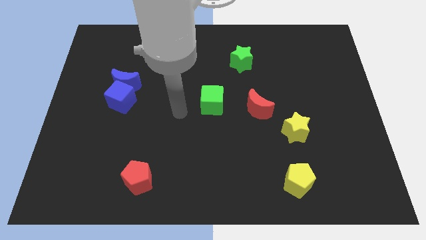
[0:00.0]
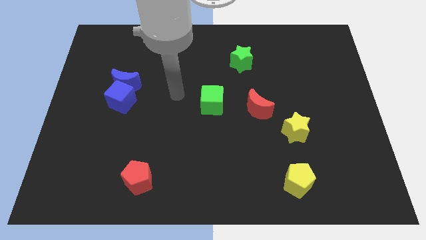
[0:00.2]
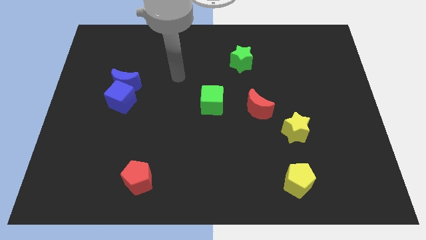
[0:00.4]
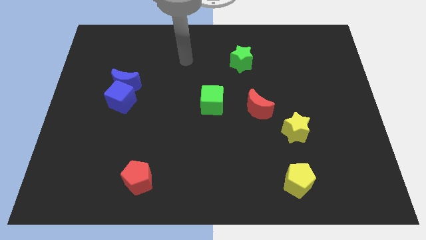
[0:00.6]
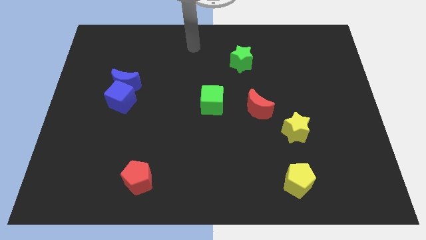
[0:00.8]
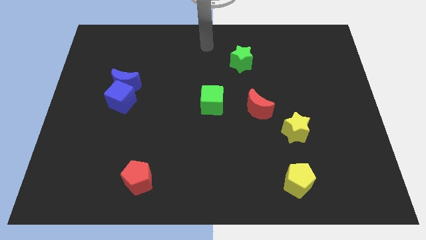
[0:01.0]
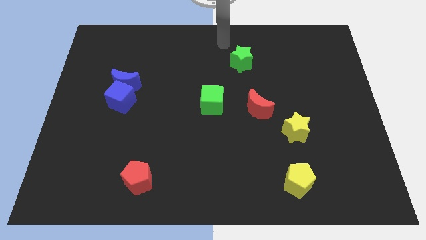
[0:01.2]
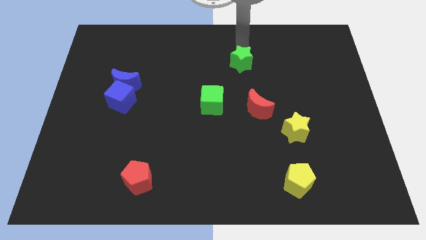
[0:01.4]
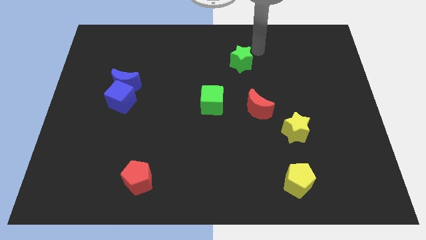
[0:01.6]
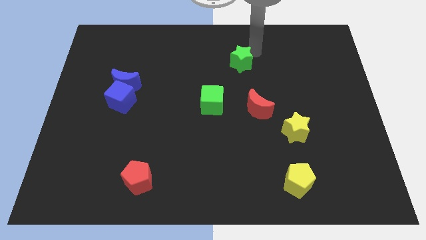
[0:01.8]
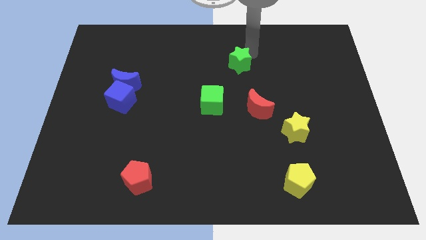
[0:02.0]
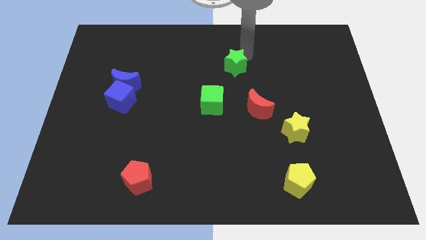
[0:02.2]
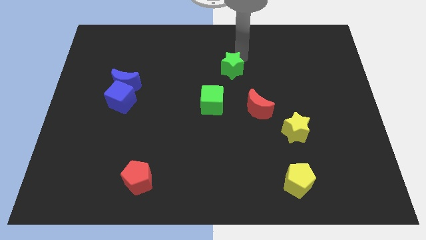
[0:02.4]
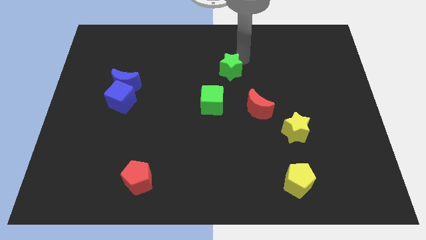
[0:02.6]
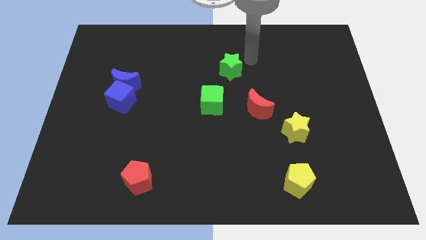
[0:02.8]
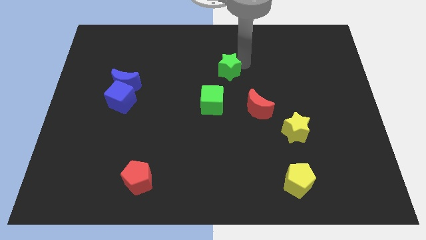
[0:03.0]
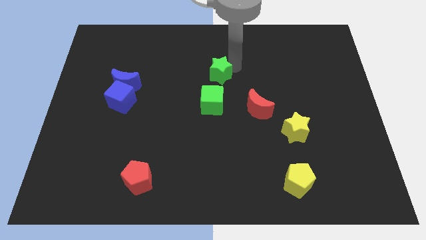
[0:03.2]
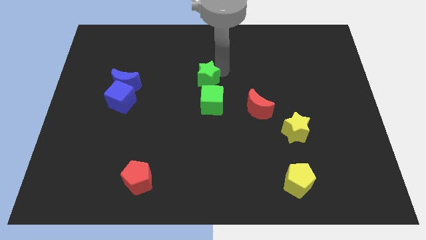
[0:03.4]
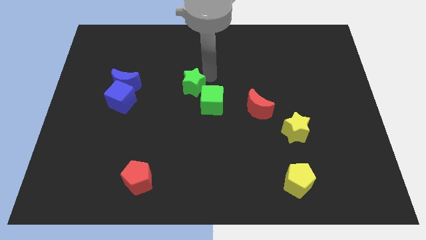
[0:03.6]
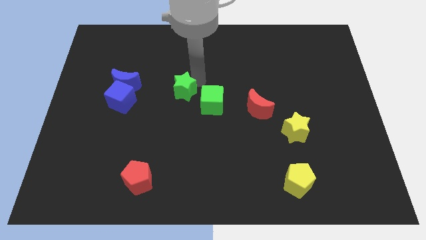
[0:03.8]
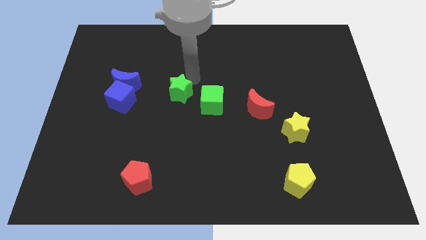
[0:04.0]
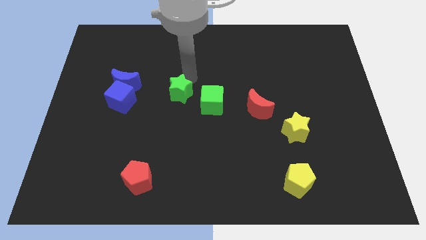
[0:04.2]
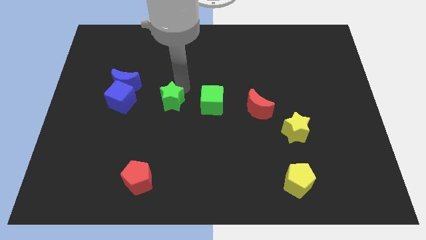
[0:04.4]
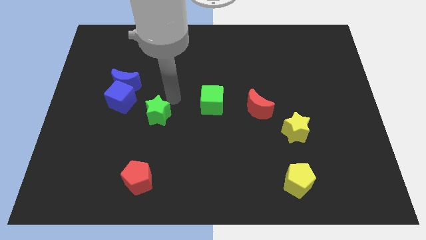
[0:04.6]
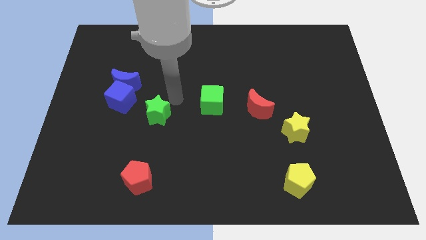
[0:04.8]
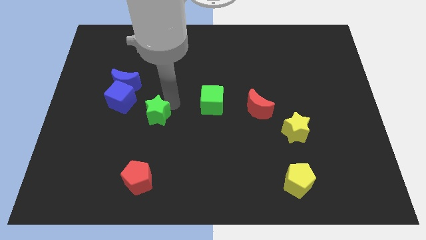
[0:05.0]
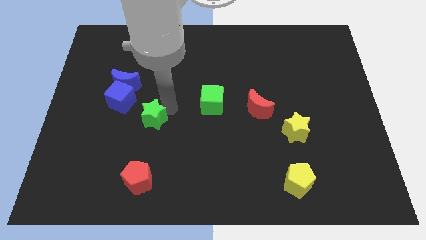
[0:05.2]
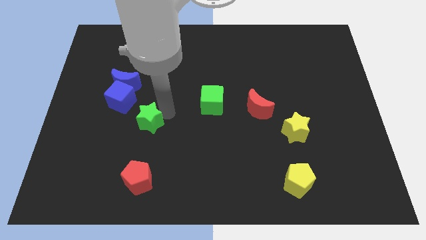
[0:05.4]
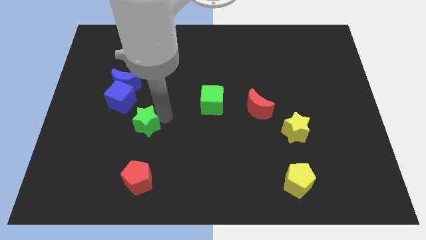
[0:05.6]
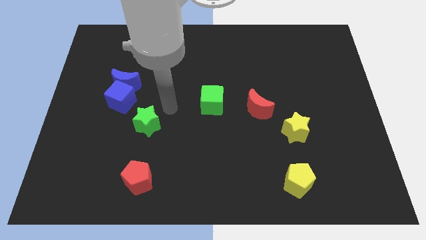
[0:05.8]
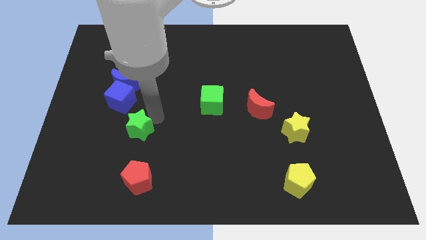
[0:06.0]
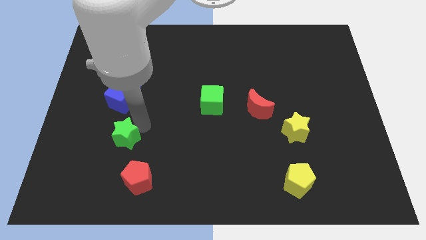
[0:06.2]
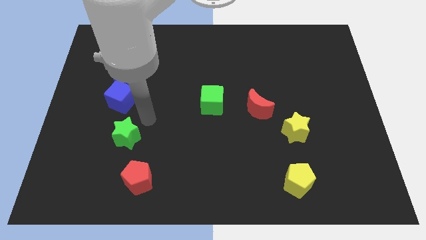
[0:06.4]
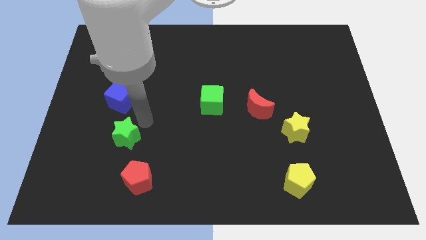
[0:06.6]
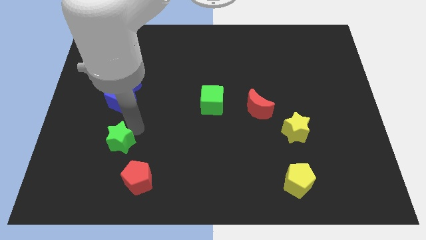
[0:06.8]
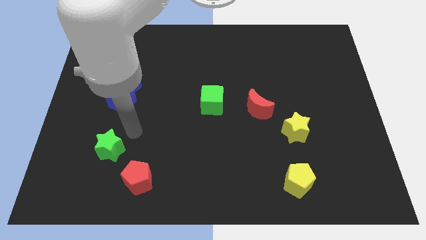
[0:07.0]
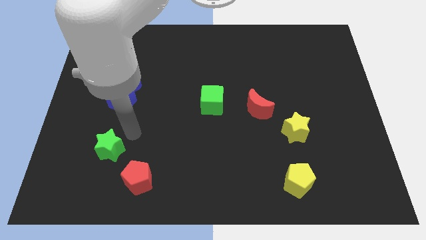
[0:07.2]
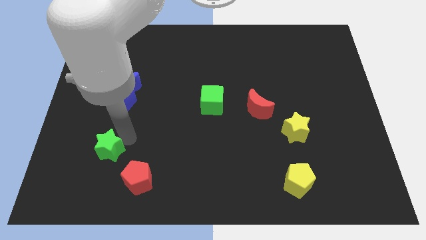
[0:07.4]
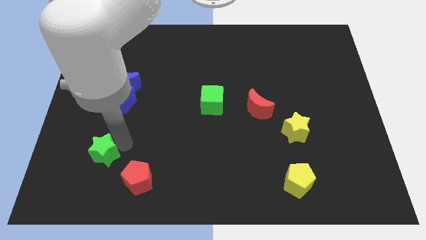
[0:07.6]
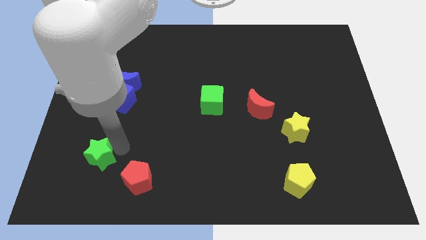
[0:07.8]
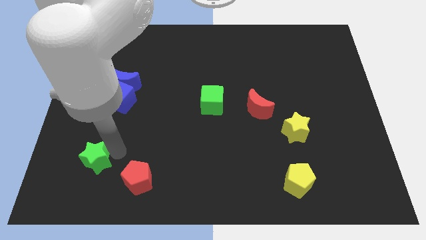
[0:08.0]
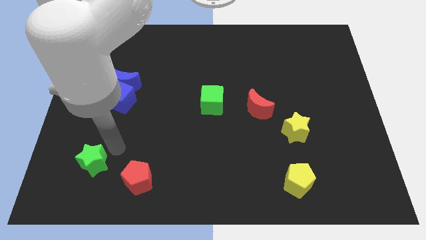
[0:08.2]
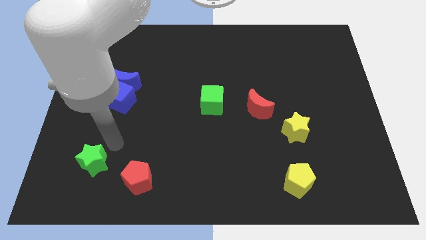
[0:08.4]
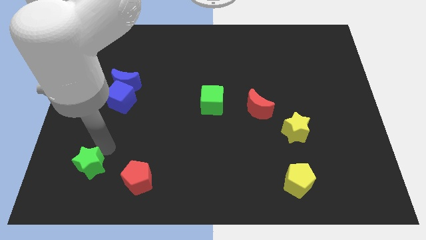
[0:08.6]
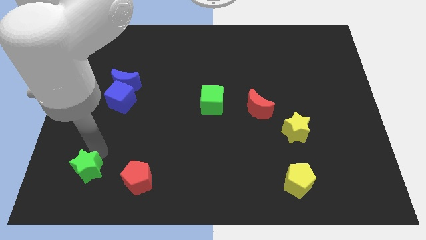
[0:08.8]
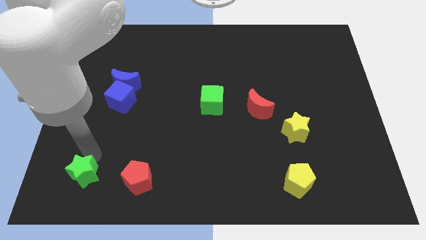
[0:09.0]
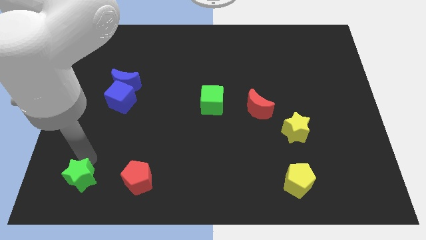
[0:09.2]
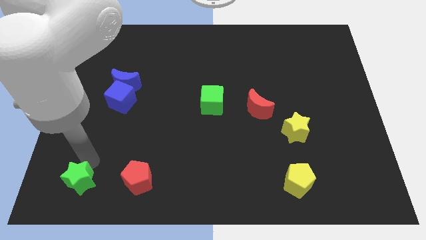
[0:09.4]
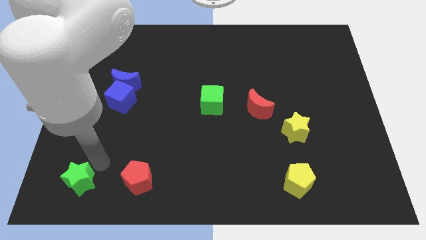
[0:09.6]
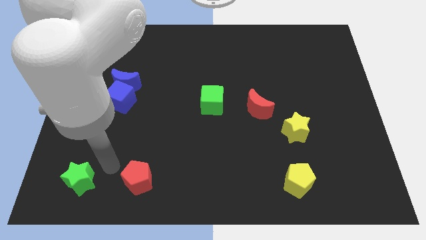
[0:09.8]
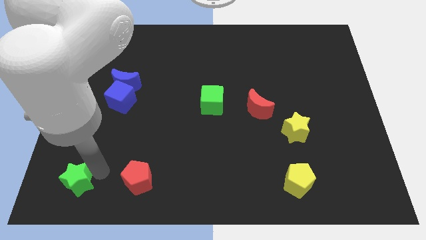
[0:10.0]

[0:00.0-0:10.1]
move the green star to the bottom left

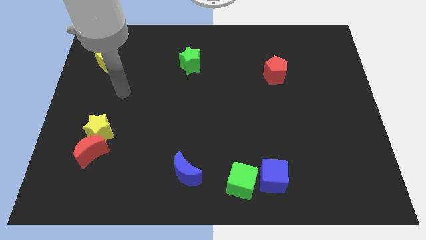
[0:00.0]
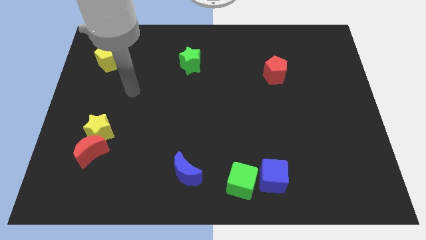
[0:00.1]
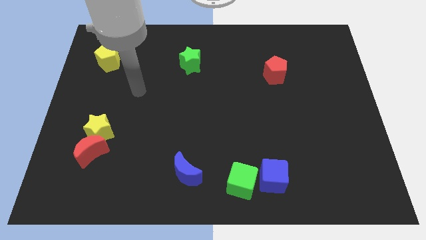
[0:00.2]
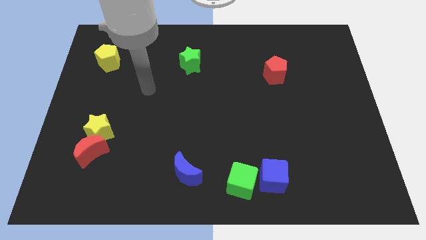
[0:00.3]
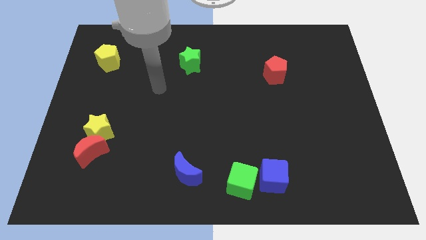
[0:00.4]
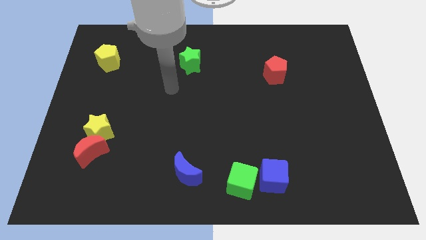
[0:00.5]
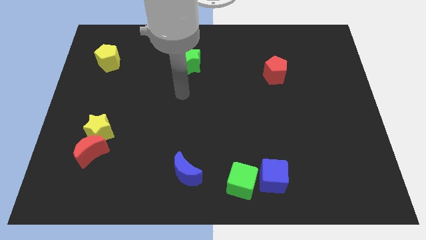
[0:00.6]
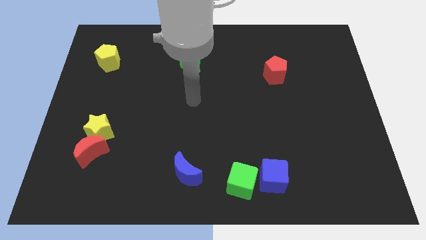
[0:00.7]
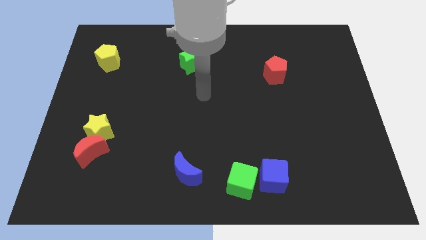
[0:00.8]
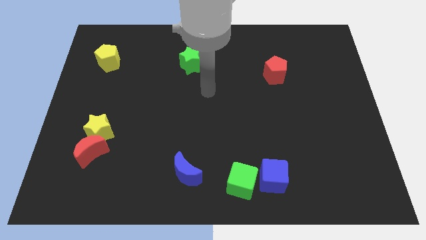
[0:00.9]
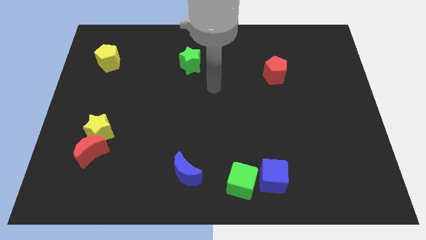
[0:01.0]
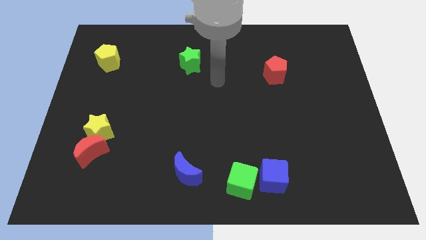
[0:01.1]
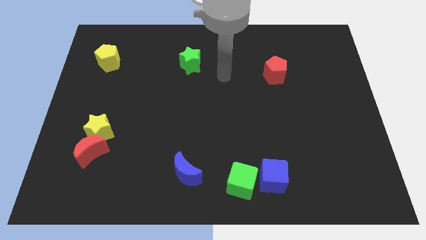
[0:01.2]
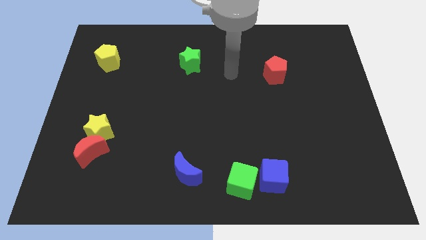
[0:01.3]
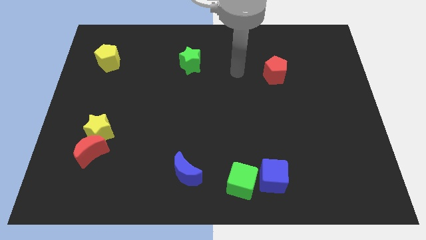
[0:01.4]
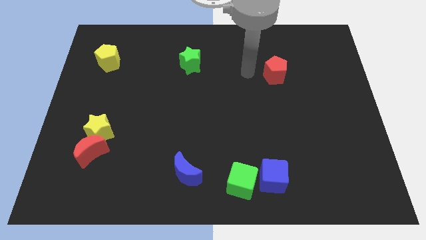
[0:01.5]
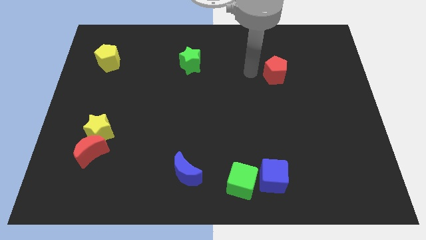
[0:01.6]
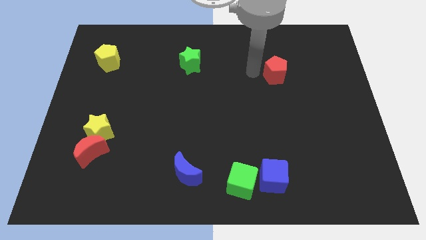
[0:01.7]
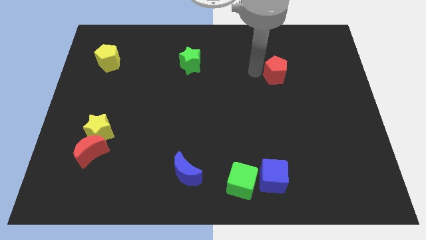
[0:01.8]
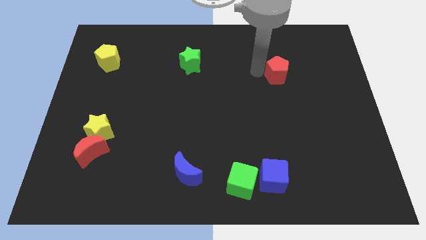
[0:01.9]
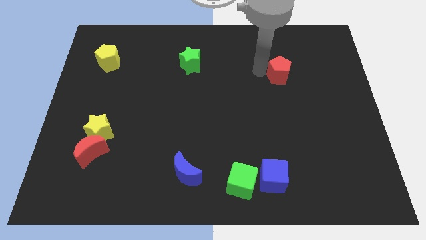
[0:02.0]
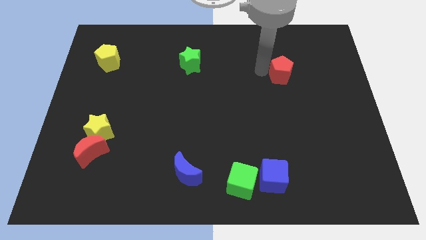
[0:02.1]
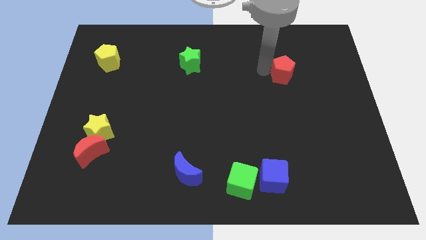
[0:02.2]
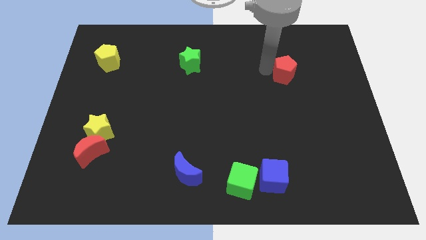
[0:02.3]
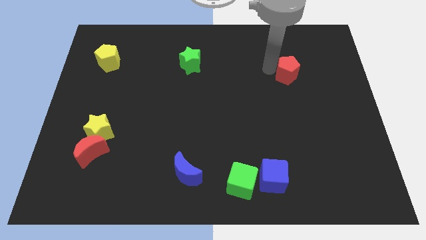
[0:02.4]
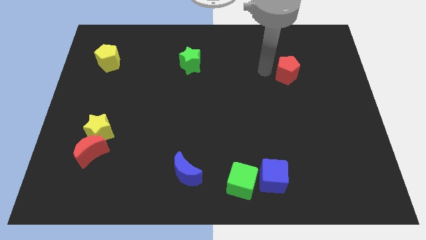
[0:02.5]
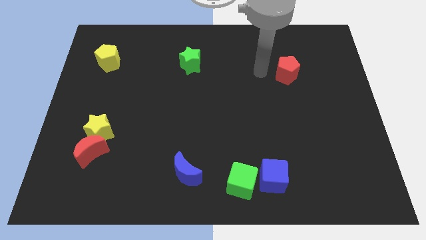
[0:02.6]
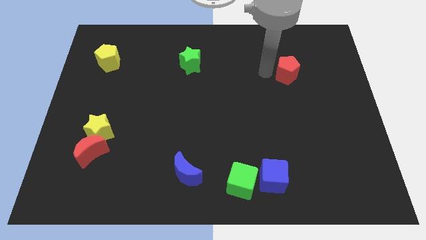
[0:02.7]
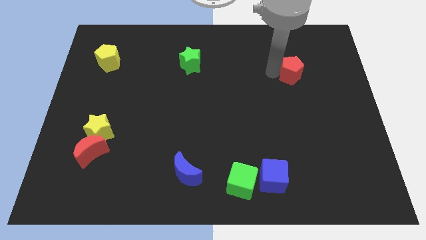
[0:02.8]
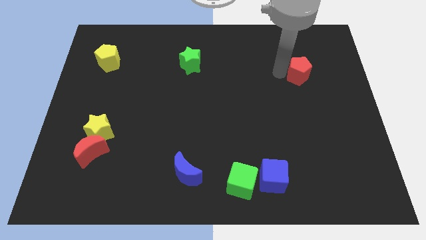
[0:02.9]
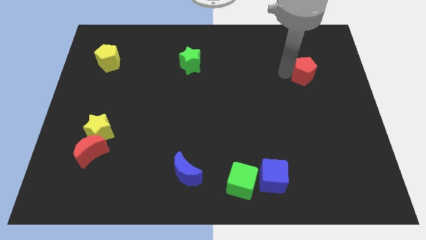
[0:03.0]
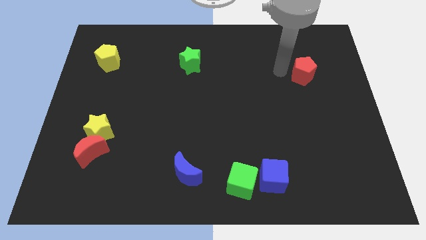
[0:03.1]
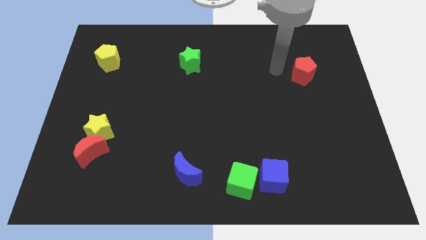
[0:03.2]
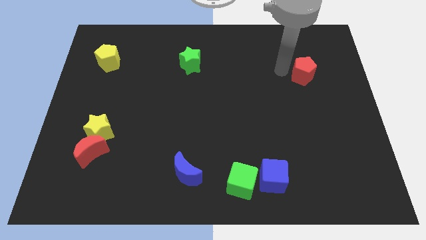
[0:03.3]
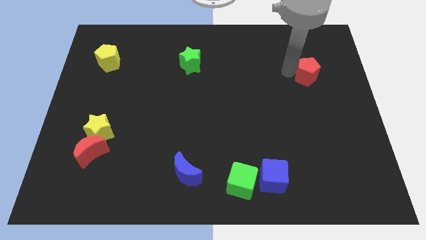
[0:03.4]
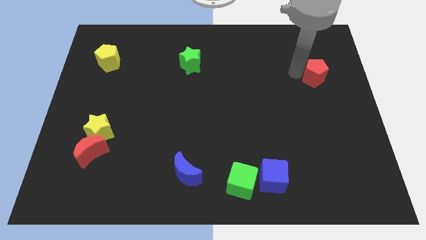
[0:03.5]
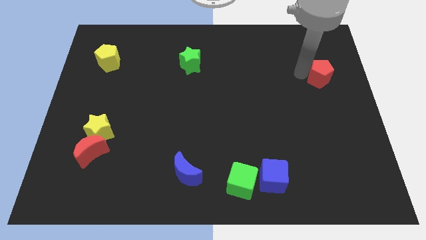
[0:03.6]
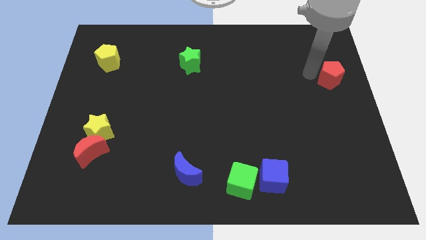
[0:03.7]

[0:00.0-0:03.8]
slide the red pentagon to the right side
